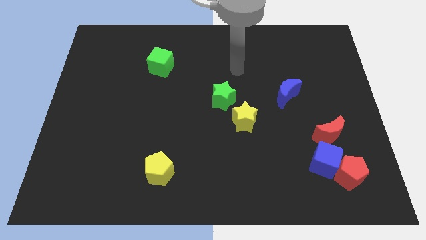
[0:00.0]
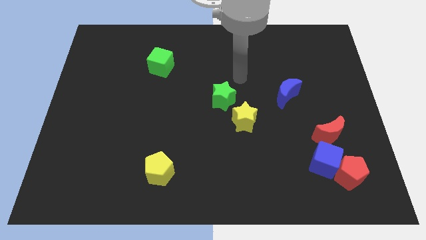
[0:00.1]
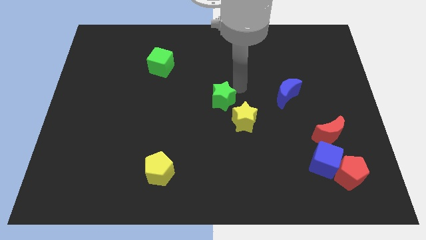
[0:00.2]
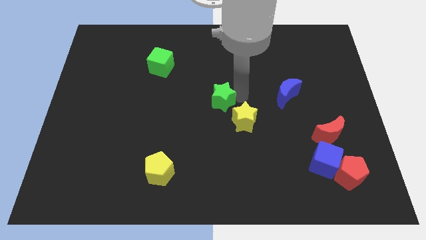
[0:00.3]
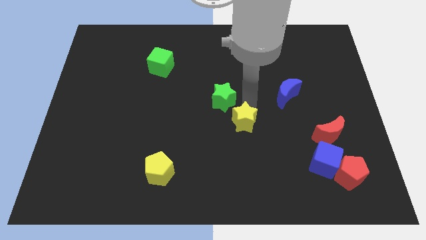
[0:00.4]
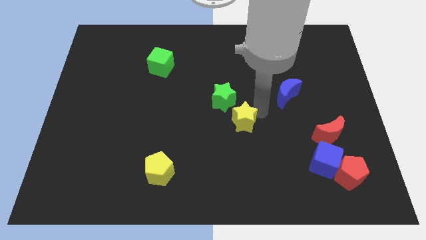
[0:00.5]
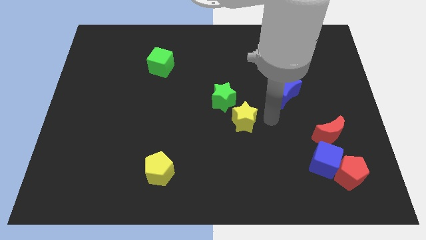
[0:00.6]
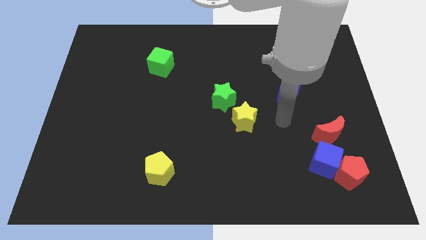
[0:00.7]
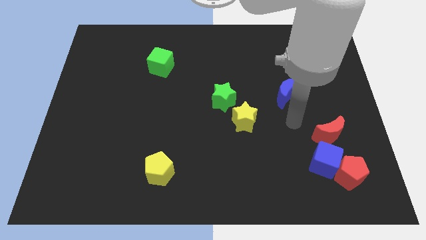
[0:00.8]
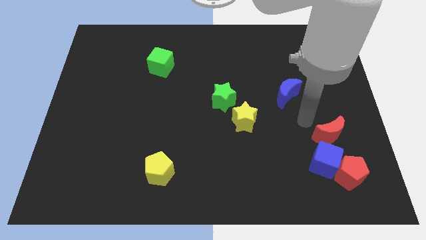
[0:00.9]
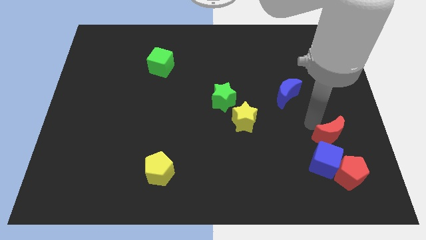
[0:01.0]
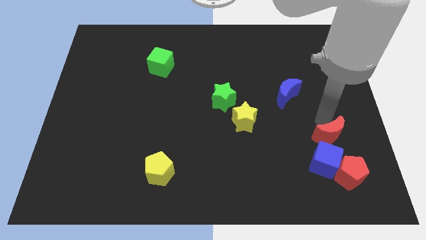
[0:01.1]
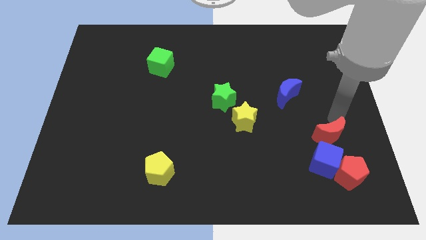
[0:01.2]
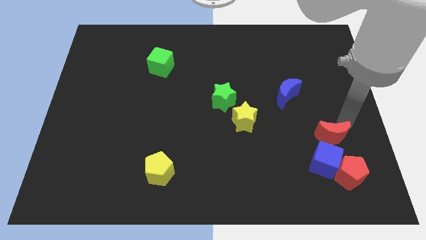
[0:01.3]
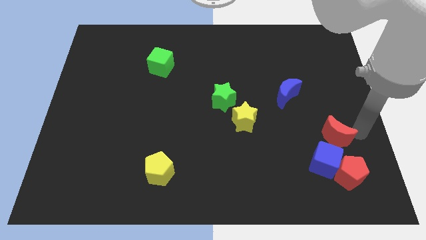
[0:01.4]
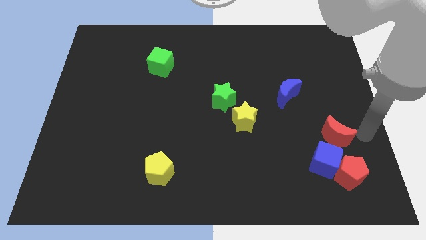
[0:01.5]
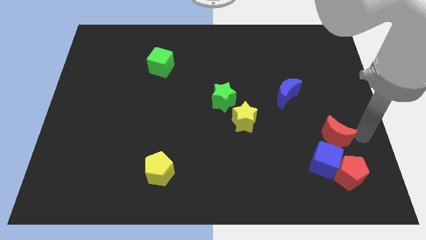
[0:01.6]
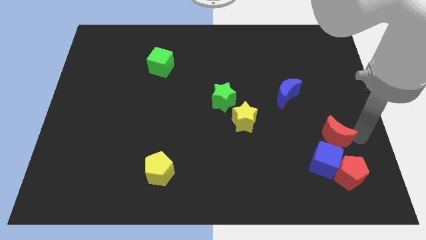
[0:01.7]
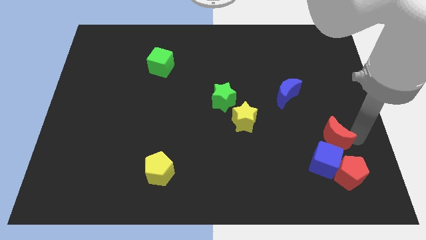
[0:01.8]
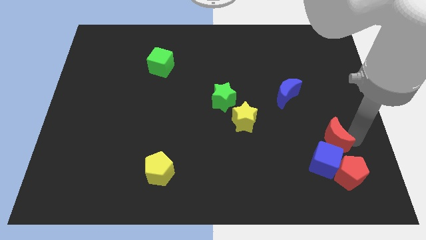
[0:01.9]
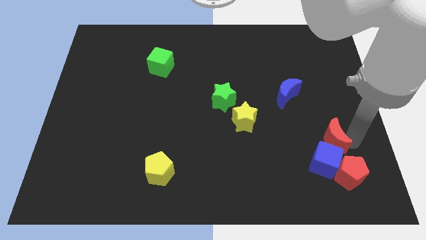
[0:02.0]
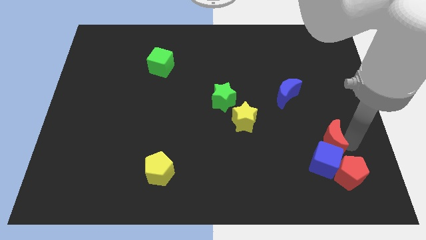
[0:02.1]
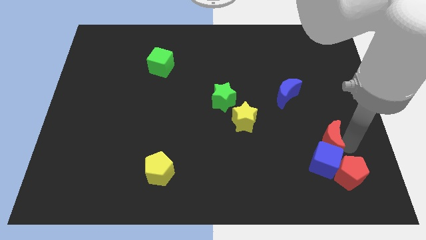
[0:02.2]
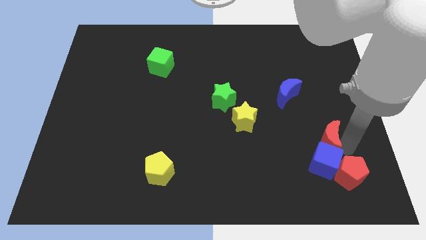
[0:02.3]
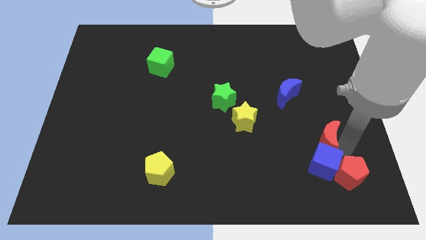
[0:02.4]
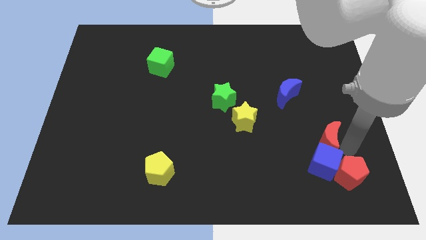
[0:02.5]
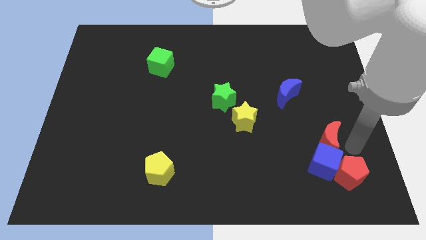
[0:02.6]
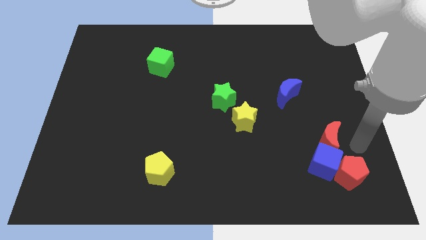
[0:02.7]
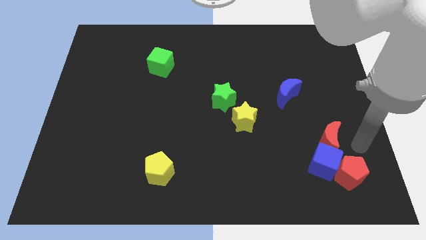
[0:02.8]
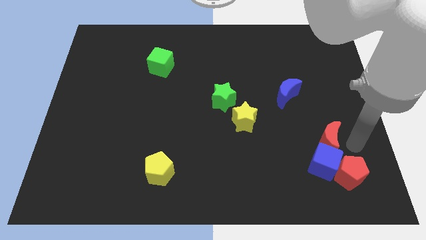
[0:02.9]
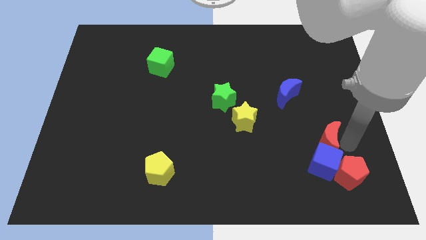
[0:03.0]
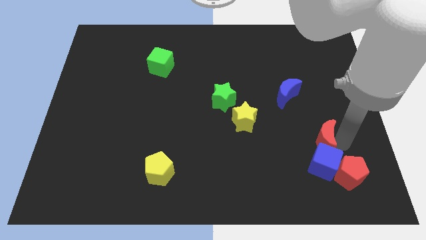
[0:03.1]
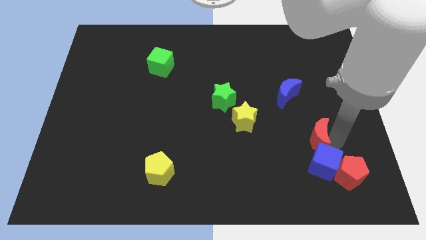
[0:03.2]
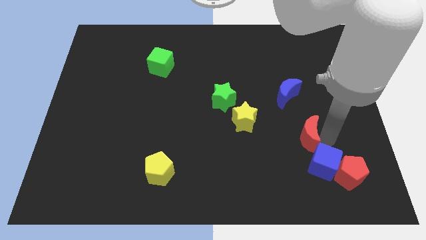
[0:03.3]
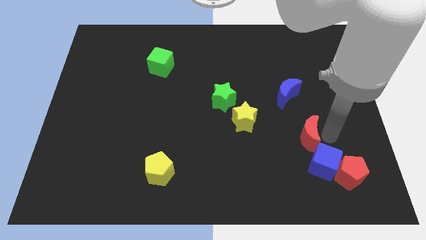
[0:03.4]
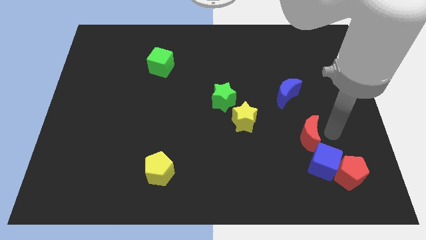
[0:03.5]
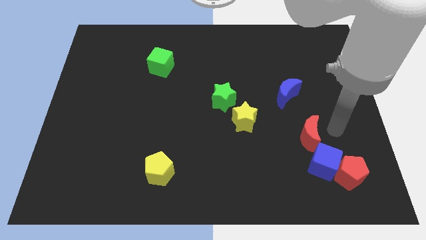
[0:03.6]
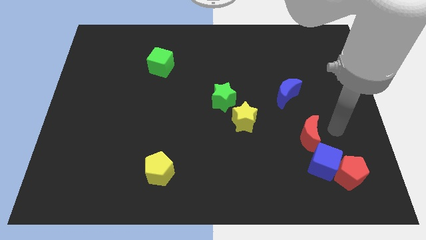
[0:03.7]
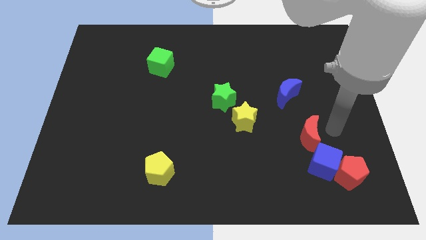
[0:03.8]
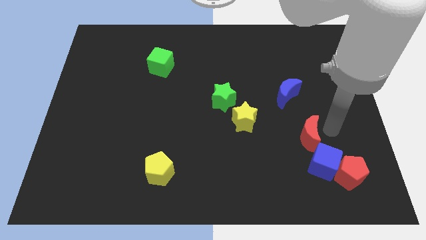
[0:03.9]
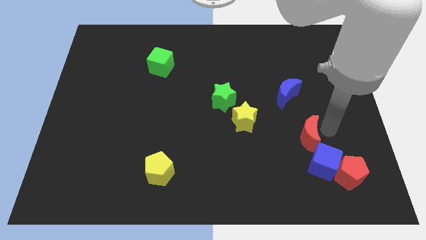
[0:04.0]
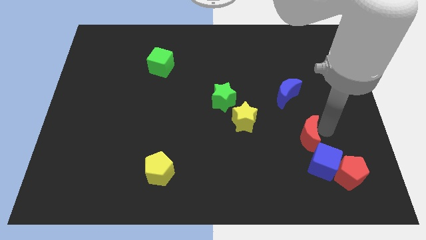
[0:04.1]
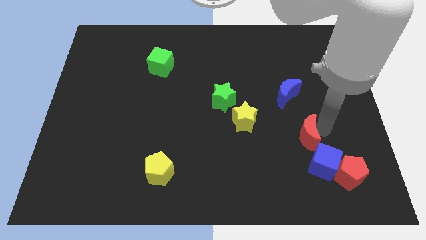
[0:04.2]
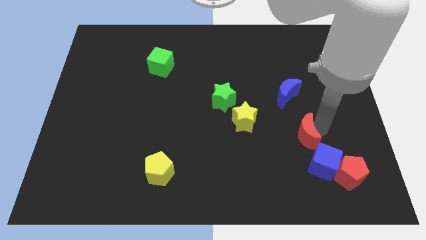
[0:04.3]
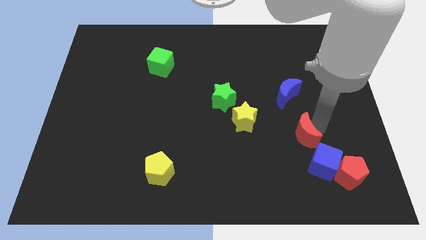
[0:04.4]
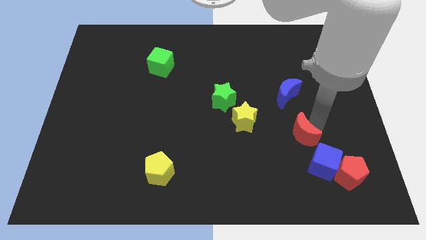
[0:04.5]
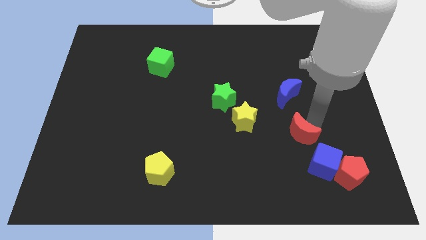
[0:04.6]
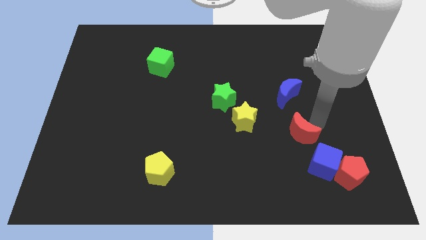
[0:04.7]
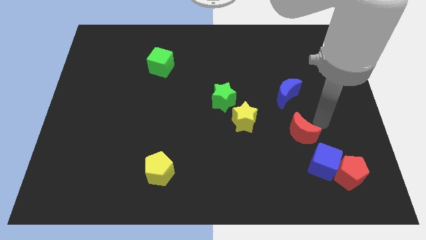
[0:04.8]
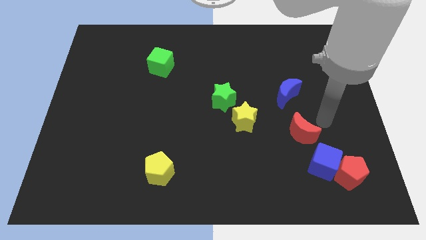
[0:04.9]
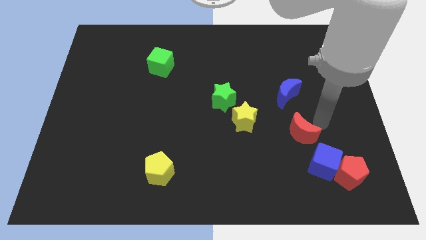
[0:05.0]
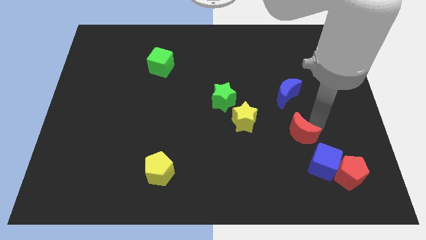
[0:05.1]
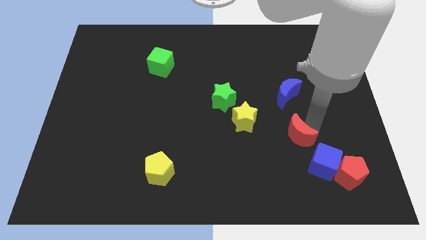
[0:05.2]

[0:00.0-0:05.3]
push the red moon to the left a little

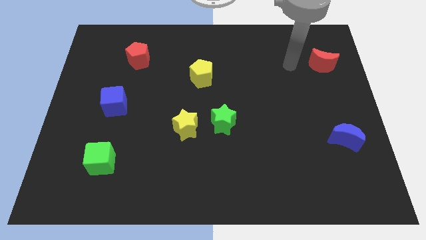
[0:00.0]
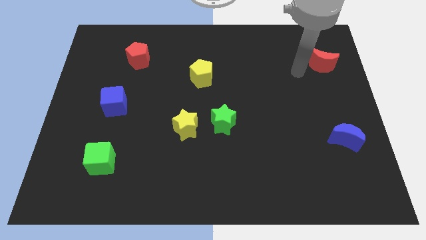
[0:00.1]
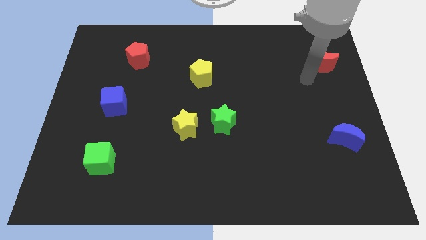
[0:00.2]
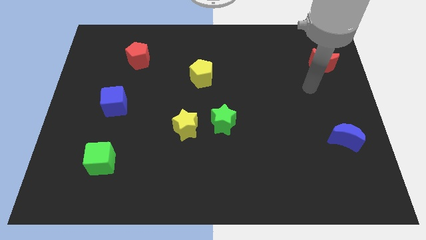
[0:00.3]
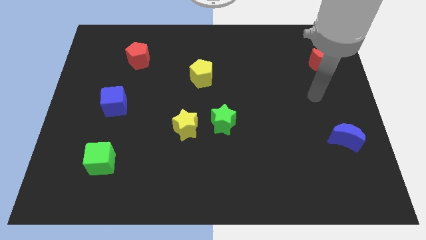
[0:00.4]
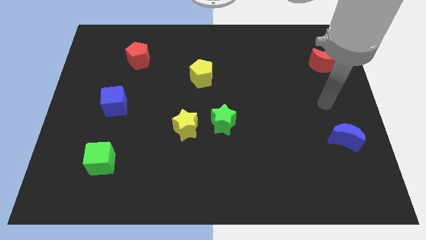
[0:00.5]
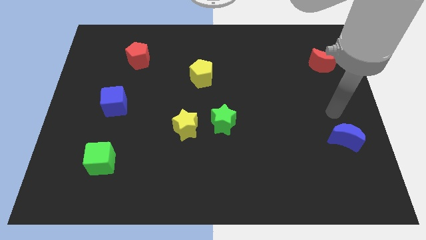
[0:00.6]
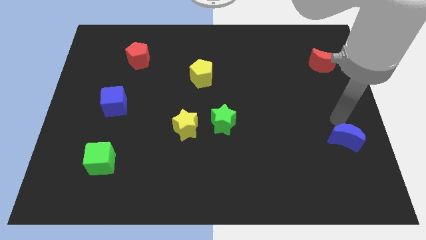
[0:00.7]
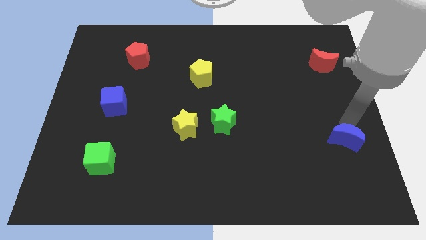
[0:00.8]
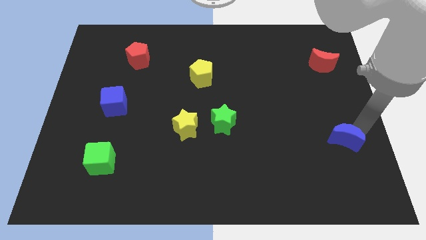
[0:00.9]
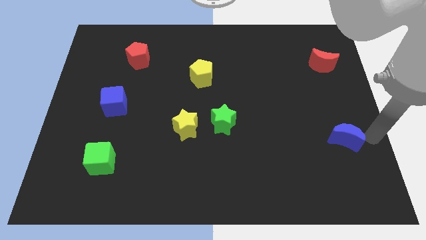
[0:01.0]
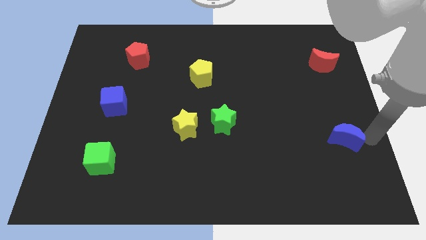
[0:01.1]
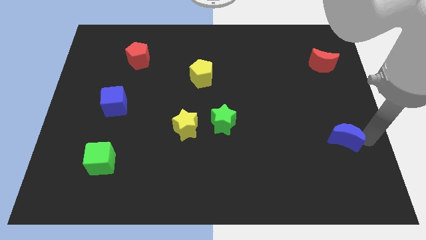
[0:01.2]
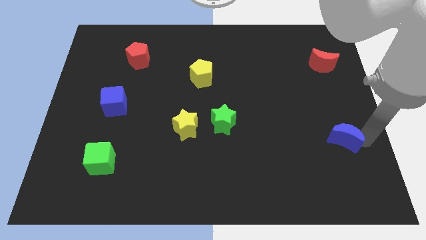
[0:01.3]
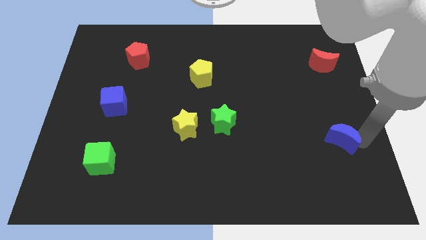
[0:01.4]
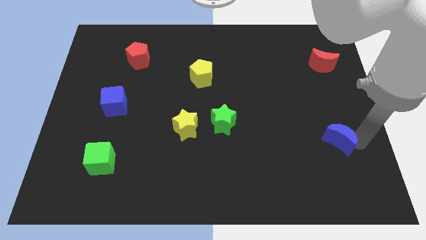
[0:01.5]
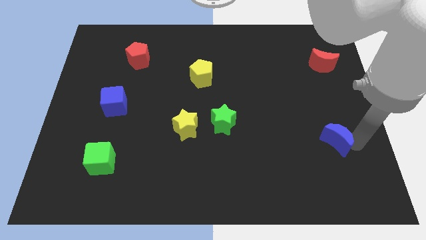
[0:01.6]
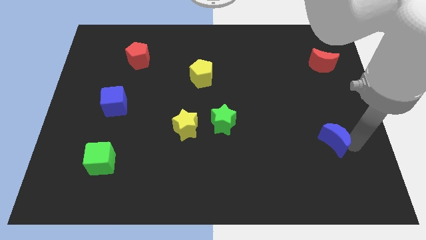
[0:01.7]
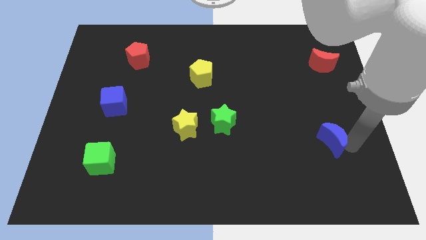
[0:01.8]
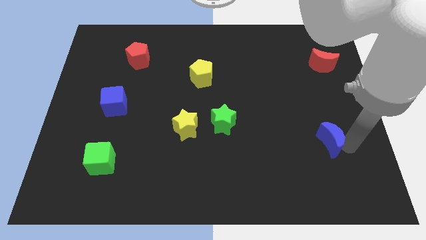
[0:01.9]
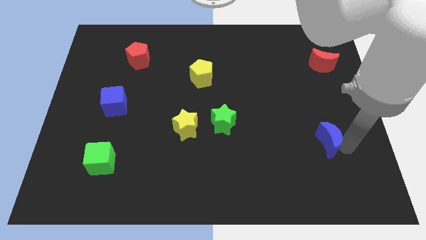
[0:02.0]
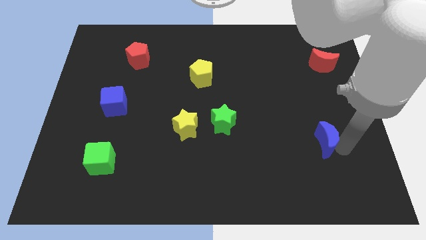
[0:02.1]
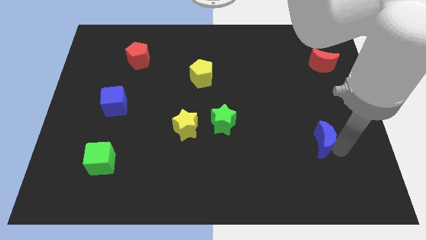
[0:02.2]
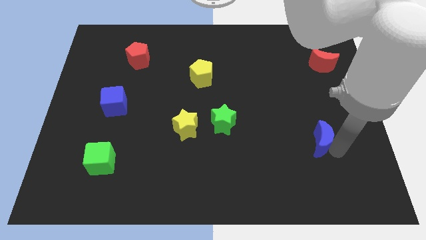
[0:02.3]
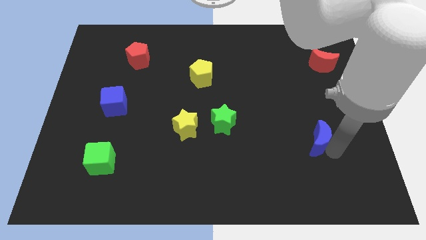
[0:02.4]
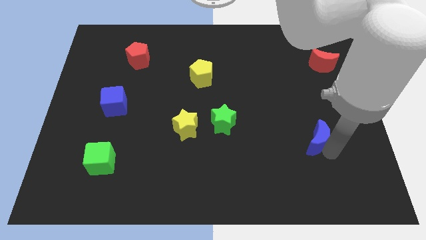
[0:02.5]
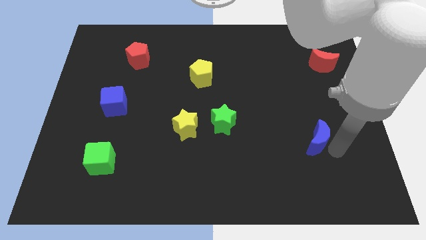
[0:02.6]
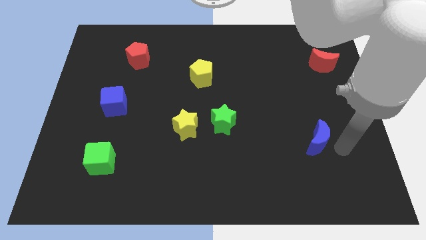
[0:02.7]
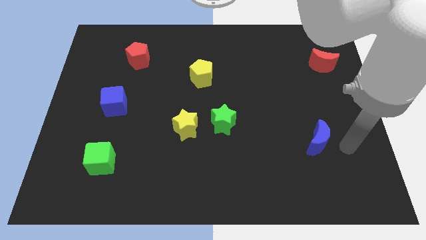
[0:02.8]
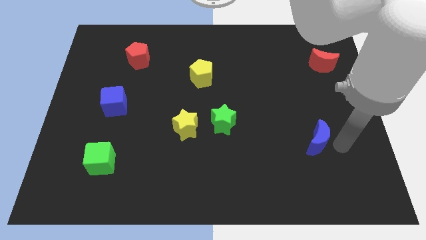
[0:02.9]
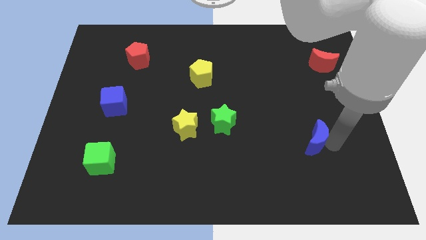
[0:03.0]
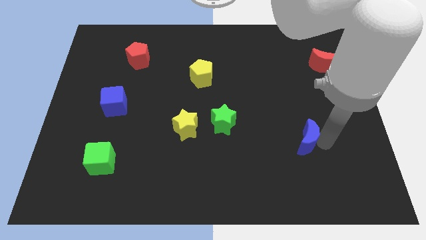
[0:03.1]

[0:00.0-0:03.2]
slide the blue moon left a bit
